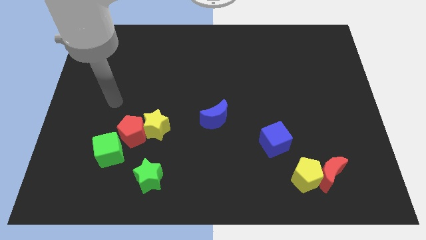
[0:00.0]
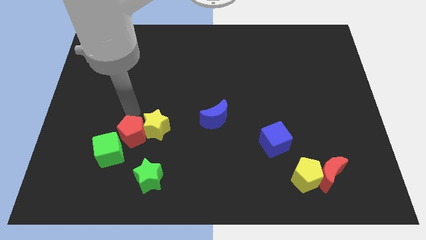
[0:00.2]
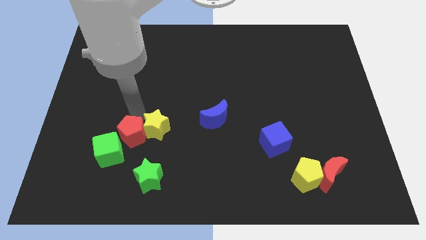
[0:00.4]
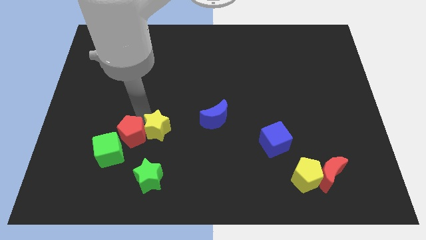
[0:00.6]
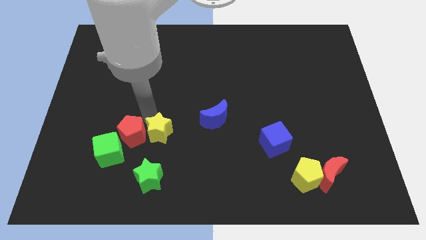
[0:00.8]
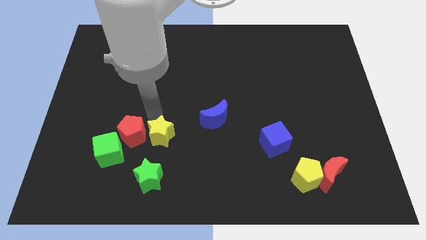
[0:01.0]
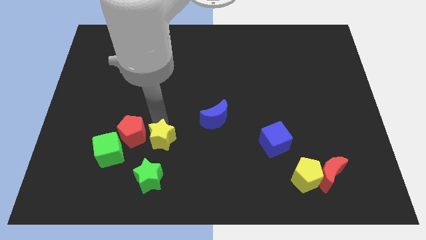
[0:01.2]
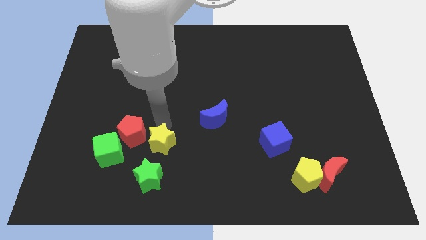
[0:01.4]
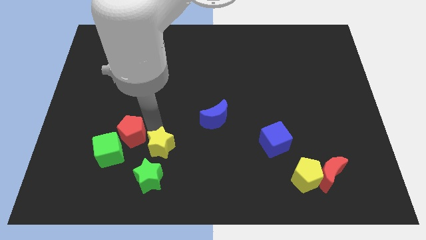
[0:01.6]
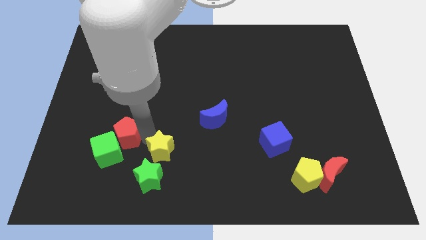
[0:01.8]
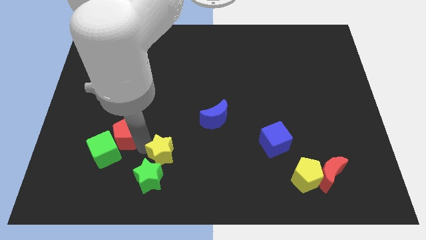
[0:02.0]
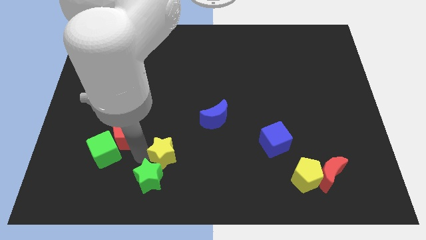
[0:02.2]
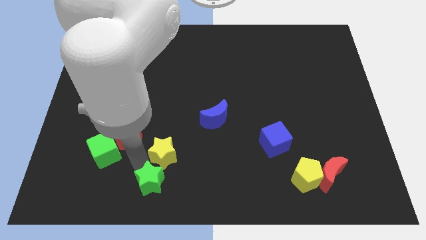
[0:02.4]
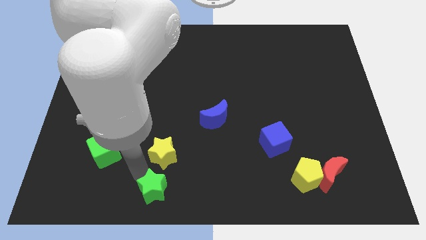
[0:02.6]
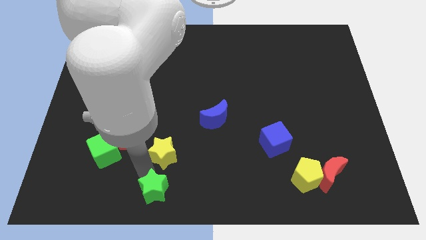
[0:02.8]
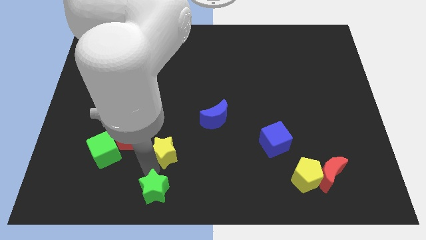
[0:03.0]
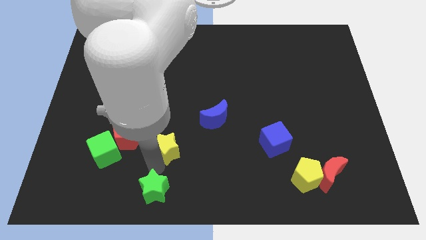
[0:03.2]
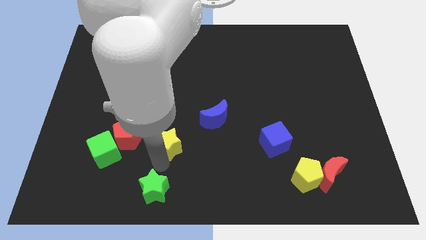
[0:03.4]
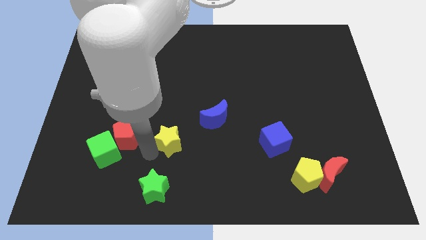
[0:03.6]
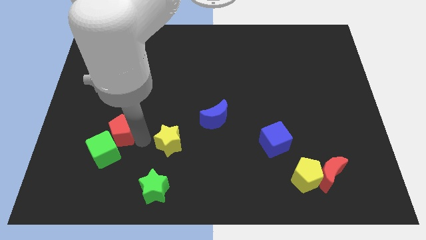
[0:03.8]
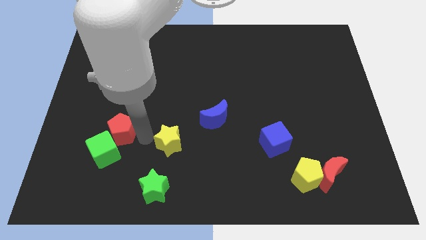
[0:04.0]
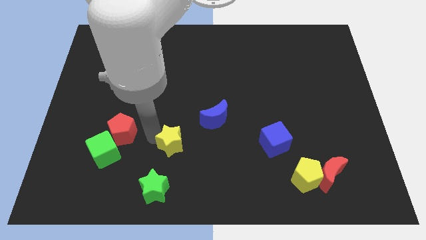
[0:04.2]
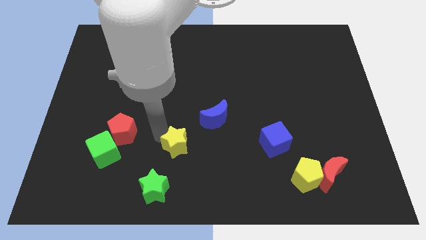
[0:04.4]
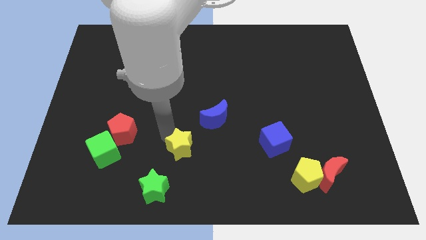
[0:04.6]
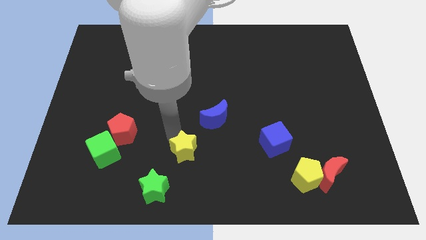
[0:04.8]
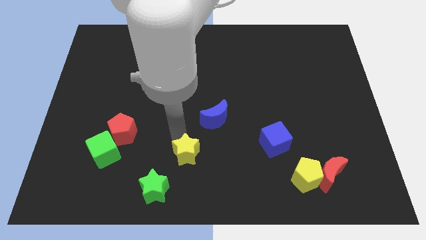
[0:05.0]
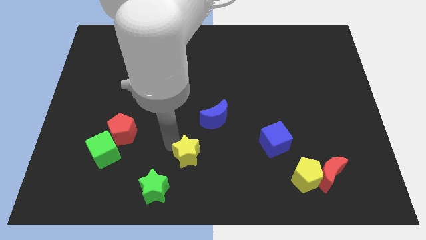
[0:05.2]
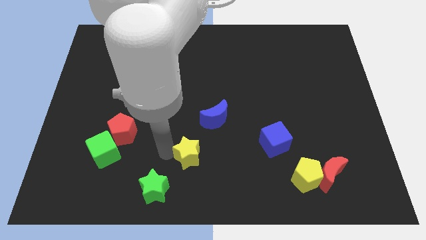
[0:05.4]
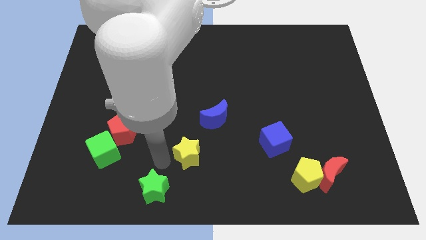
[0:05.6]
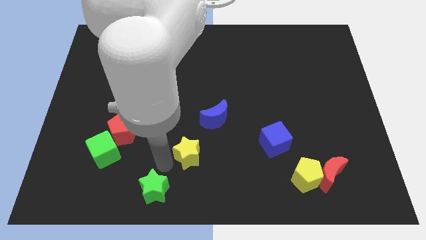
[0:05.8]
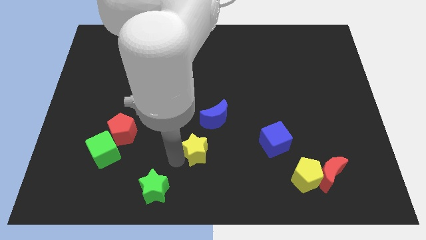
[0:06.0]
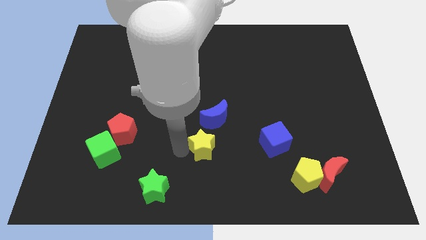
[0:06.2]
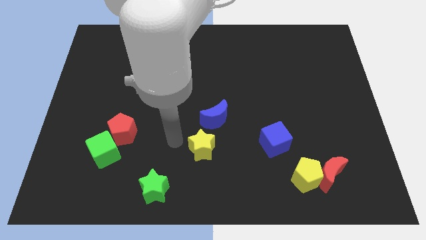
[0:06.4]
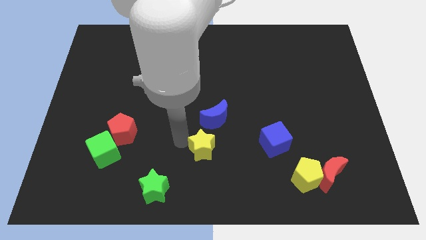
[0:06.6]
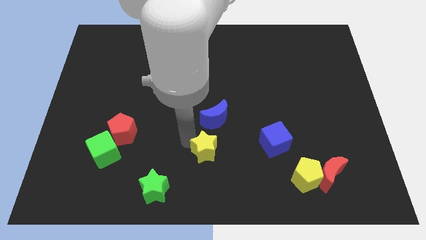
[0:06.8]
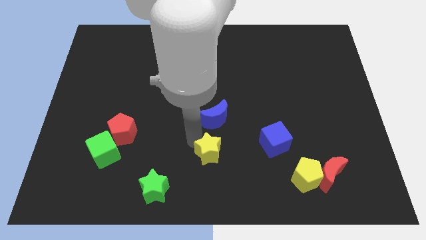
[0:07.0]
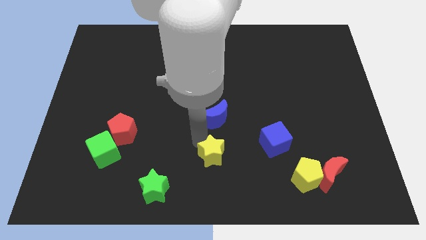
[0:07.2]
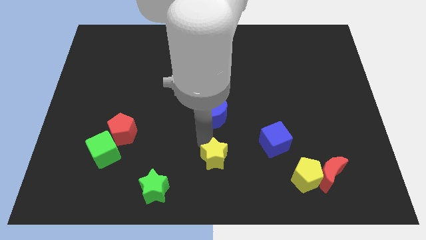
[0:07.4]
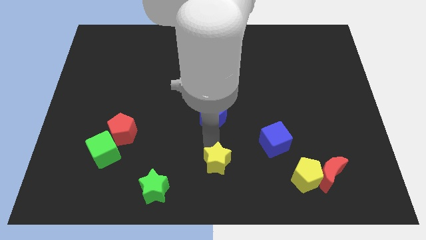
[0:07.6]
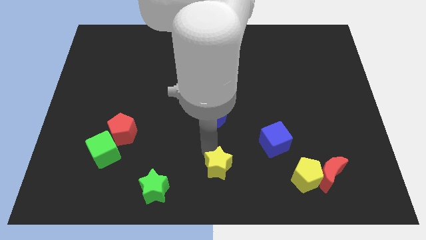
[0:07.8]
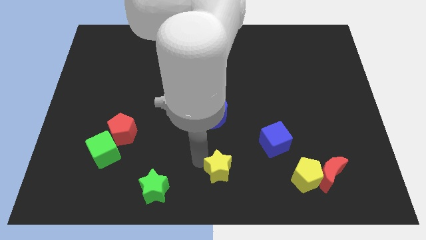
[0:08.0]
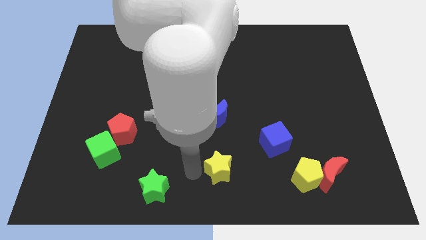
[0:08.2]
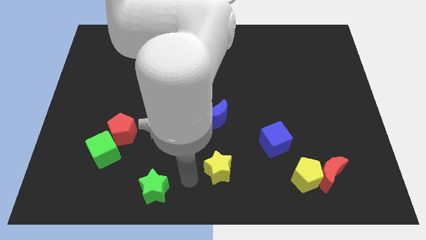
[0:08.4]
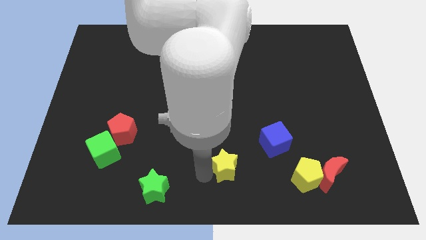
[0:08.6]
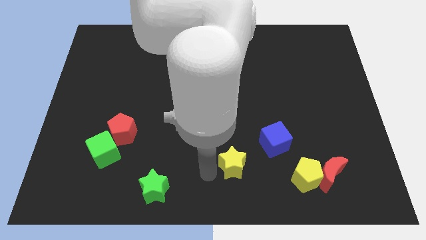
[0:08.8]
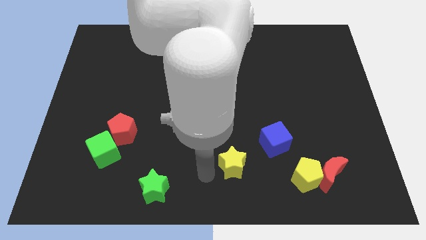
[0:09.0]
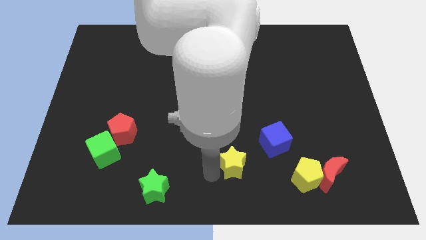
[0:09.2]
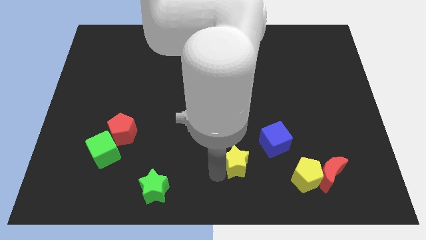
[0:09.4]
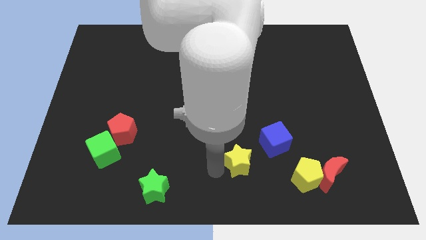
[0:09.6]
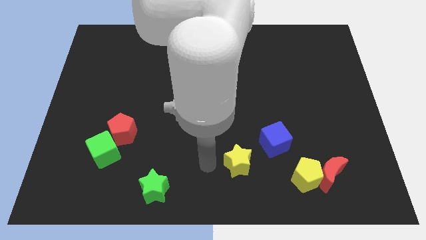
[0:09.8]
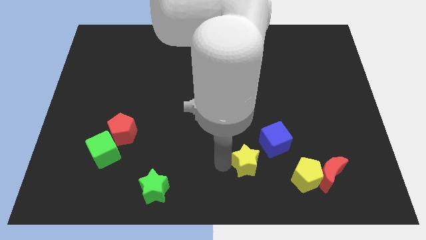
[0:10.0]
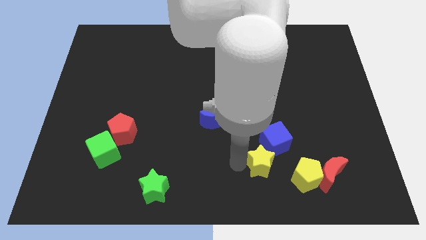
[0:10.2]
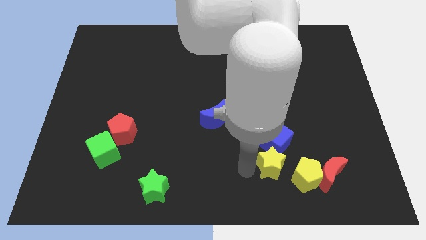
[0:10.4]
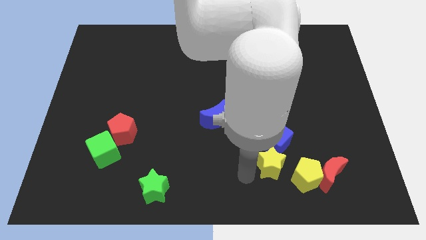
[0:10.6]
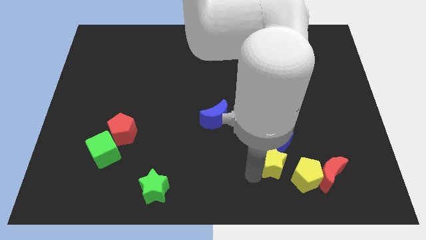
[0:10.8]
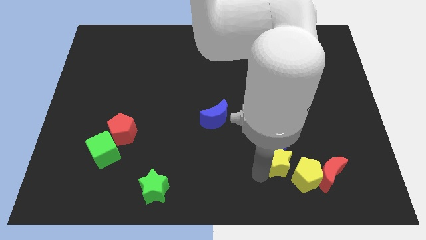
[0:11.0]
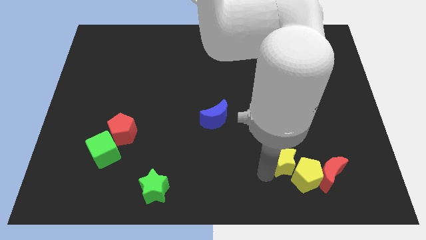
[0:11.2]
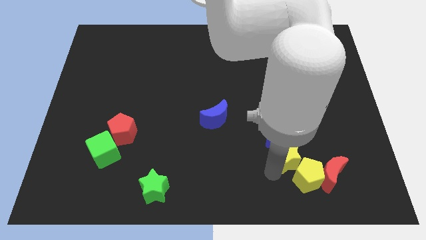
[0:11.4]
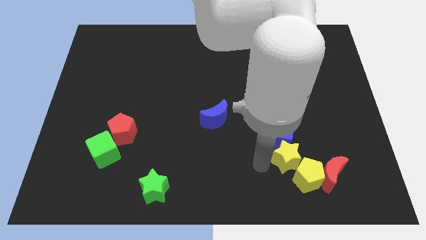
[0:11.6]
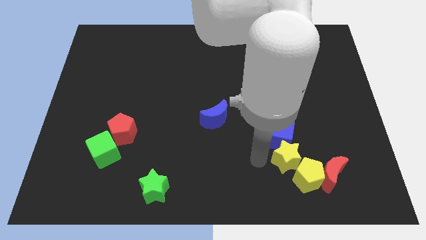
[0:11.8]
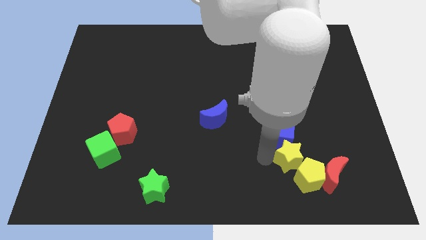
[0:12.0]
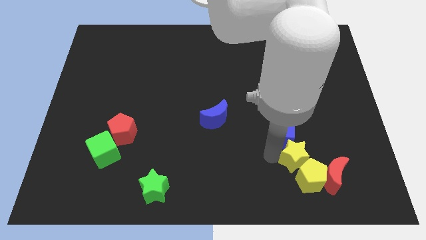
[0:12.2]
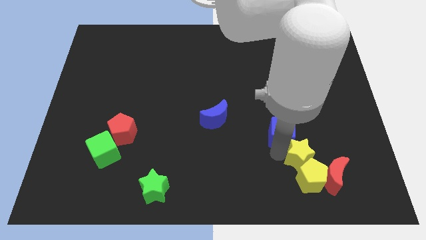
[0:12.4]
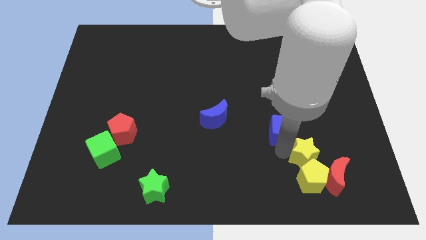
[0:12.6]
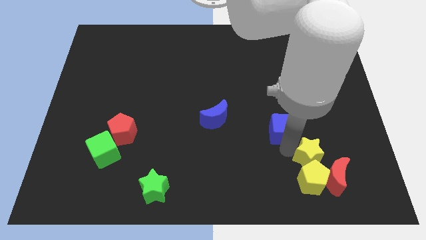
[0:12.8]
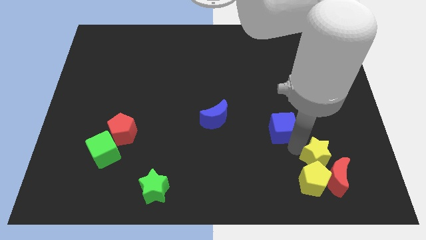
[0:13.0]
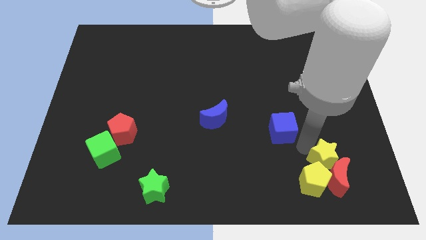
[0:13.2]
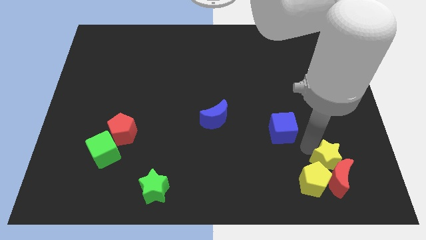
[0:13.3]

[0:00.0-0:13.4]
slide the yellow star to the top right of the red moon
